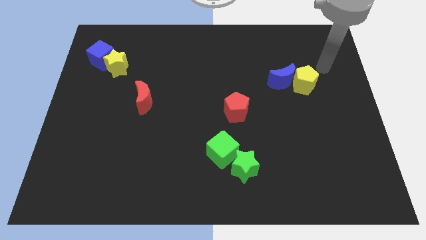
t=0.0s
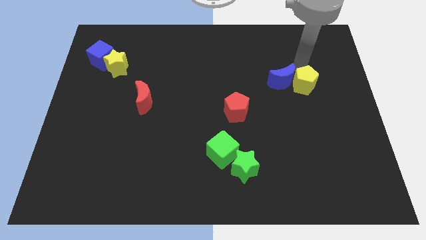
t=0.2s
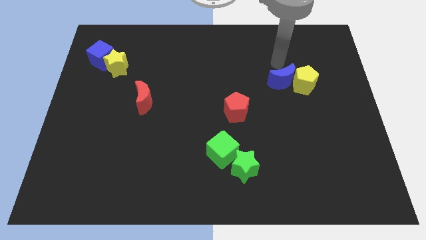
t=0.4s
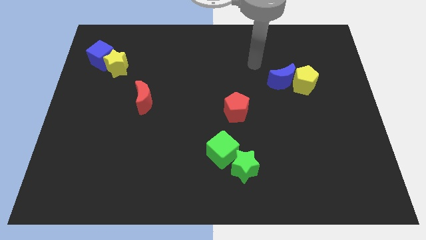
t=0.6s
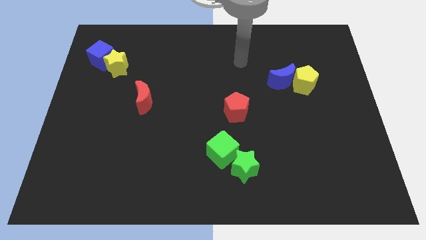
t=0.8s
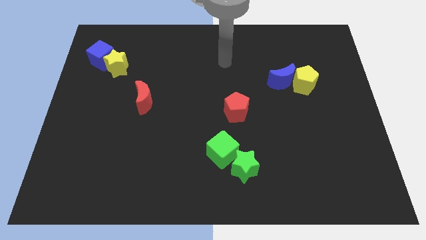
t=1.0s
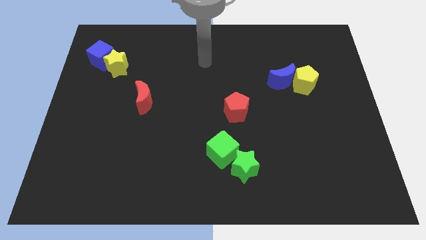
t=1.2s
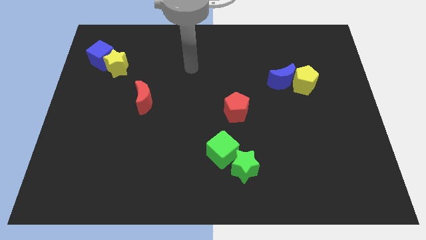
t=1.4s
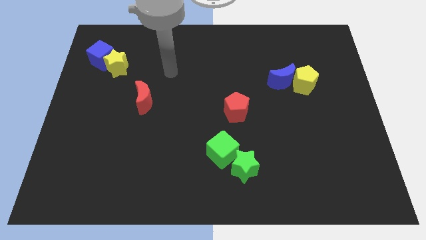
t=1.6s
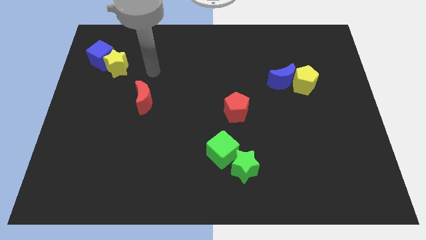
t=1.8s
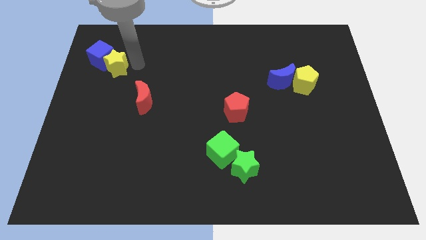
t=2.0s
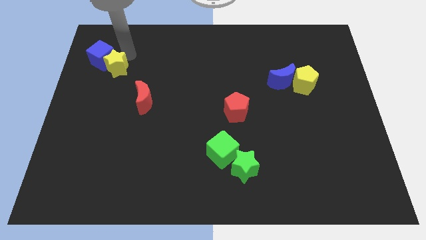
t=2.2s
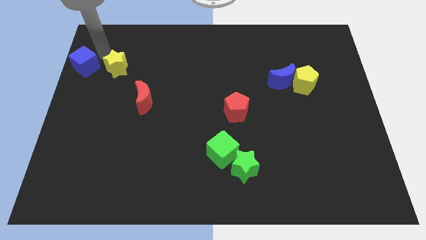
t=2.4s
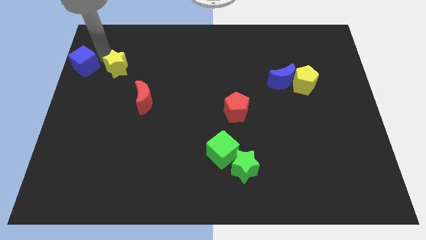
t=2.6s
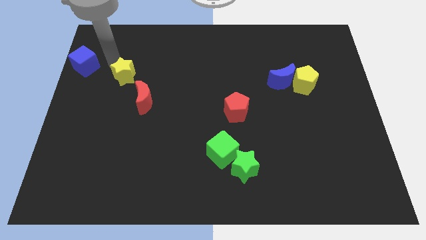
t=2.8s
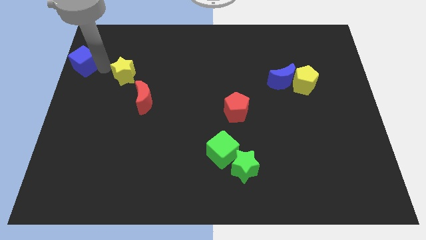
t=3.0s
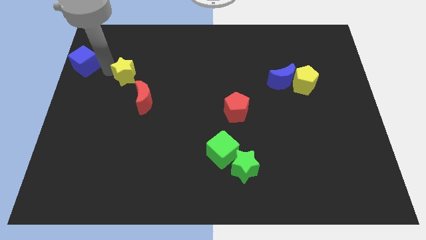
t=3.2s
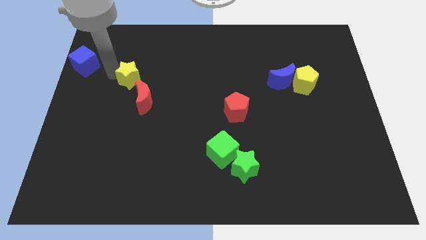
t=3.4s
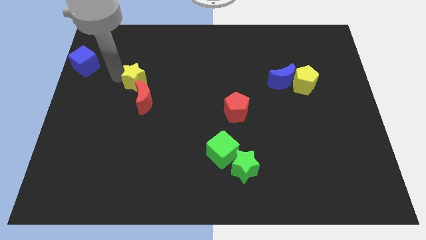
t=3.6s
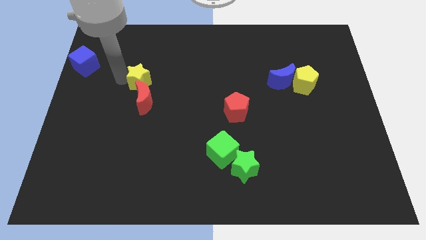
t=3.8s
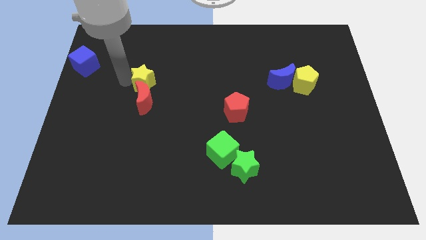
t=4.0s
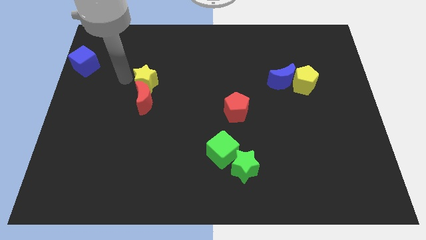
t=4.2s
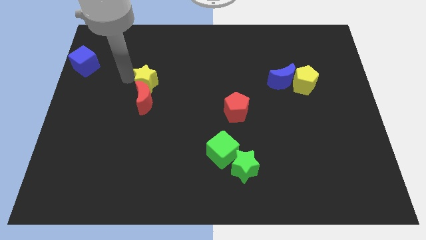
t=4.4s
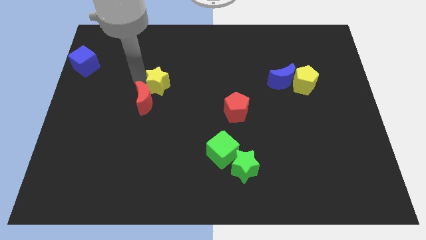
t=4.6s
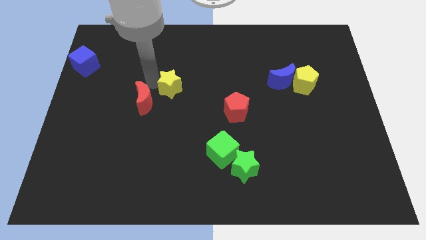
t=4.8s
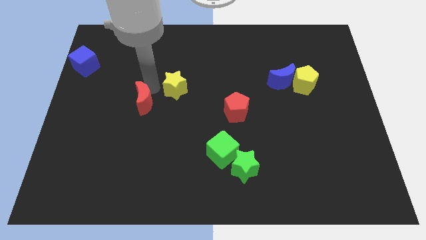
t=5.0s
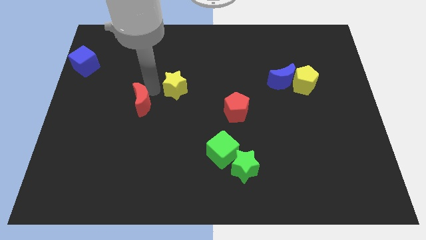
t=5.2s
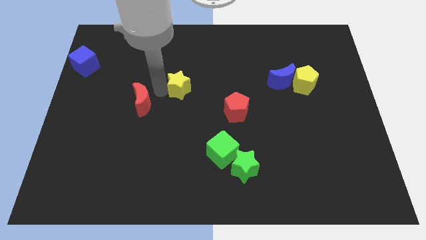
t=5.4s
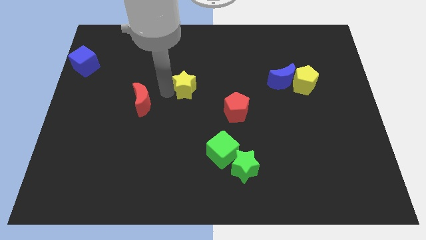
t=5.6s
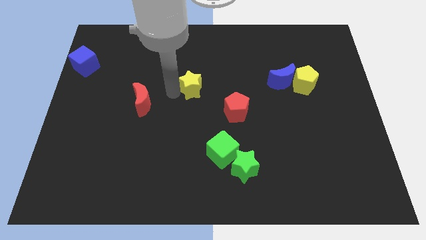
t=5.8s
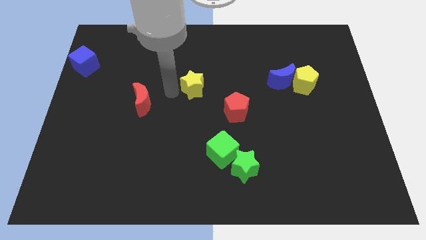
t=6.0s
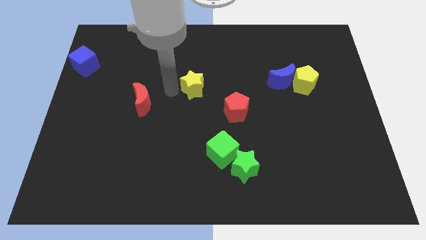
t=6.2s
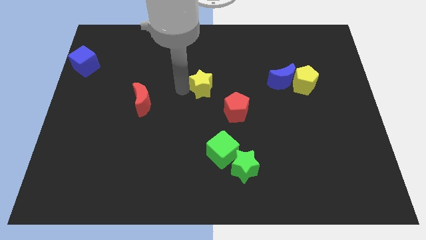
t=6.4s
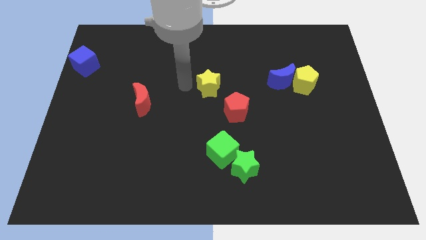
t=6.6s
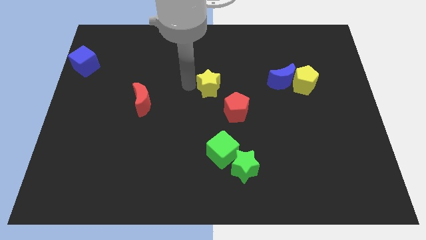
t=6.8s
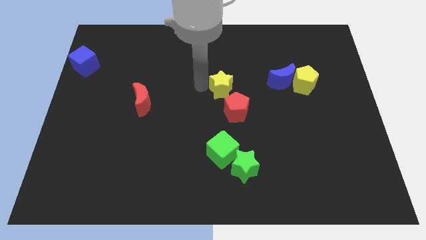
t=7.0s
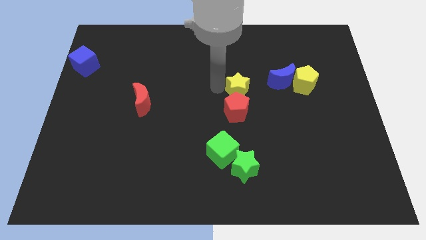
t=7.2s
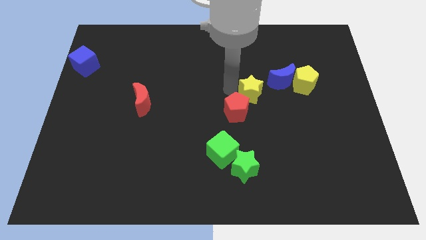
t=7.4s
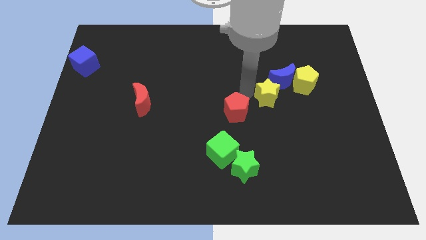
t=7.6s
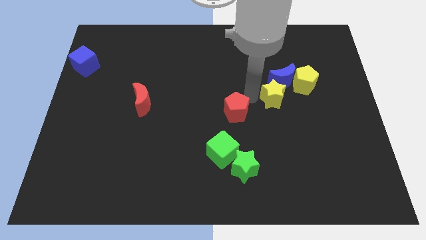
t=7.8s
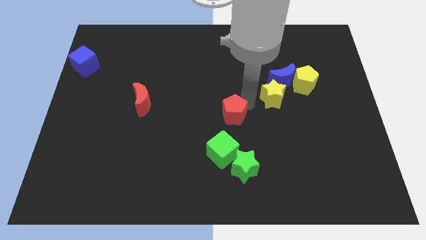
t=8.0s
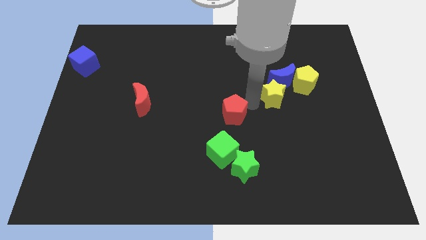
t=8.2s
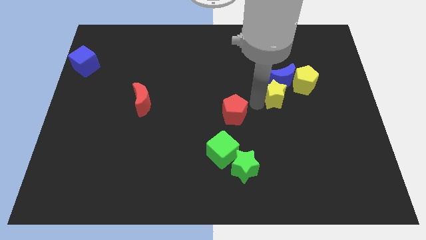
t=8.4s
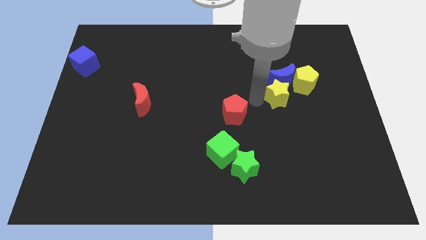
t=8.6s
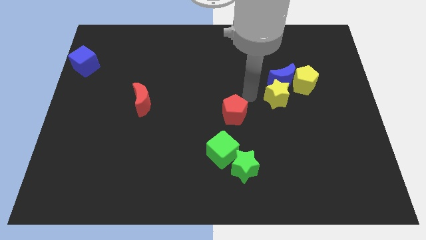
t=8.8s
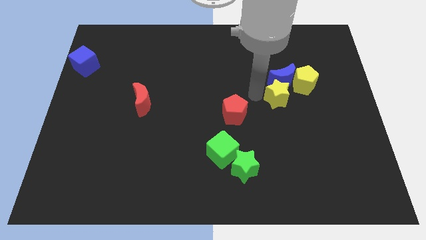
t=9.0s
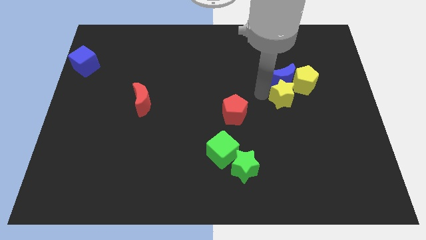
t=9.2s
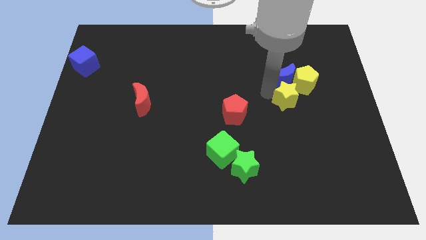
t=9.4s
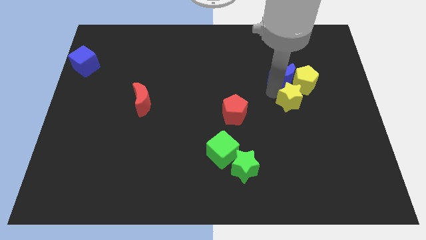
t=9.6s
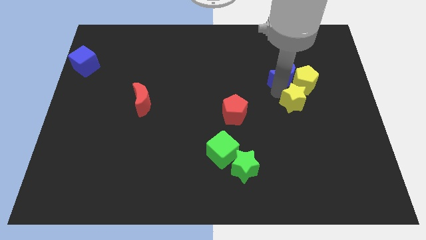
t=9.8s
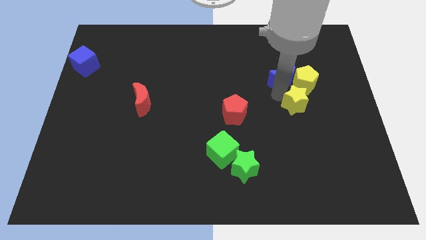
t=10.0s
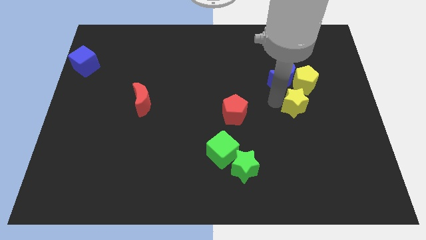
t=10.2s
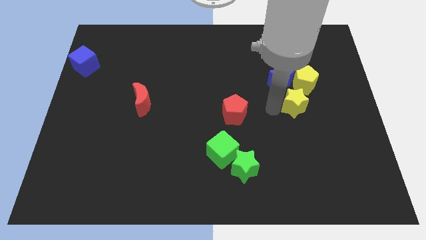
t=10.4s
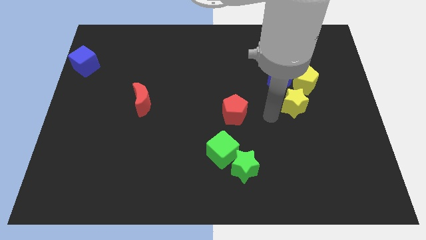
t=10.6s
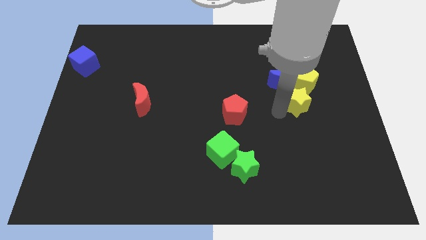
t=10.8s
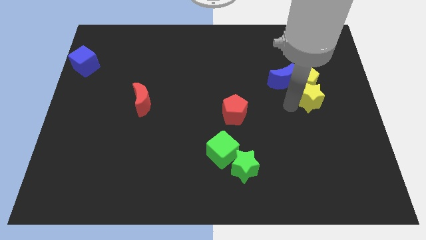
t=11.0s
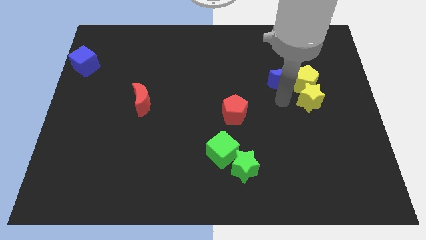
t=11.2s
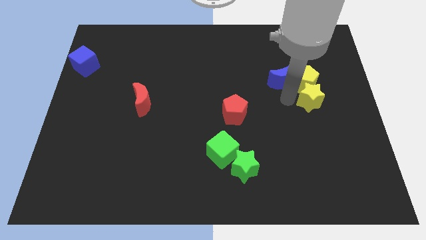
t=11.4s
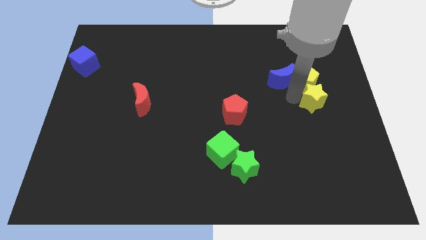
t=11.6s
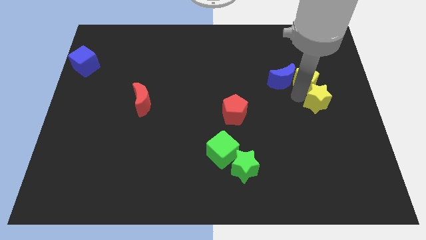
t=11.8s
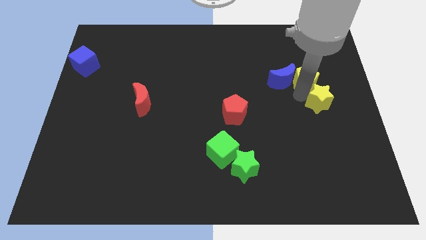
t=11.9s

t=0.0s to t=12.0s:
slide the yellow star to the right side

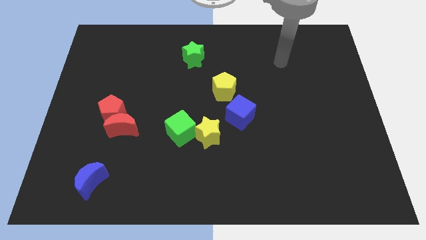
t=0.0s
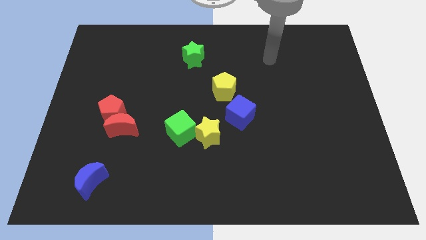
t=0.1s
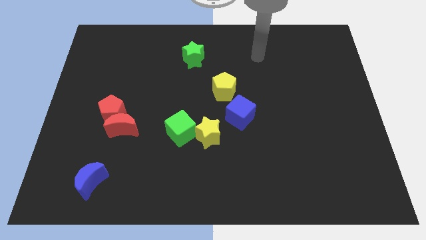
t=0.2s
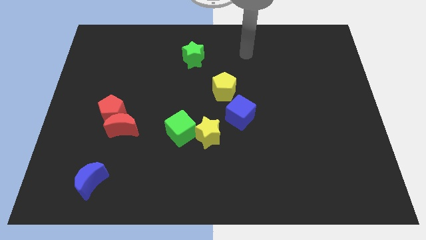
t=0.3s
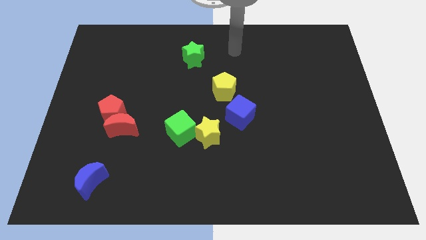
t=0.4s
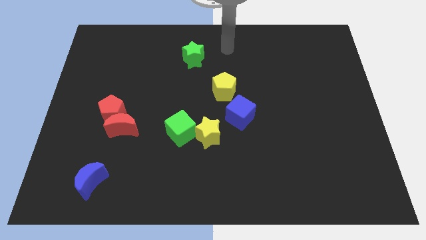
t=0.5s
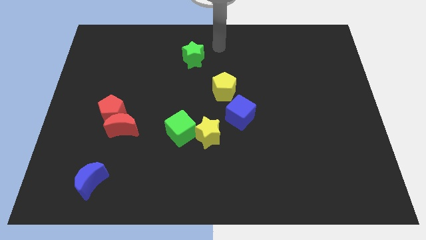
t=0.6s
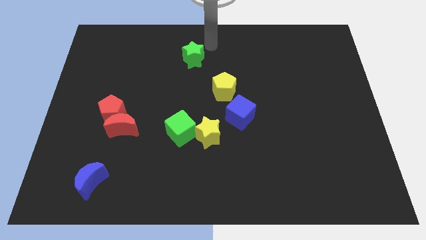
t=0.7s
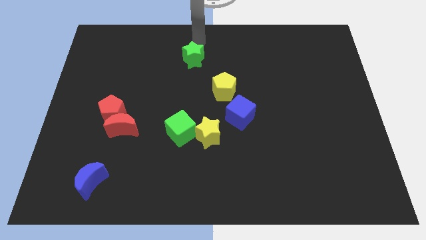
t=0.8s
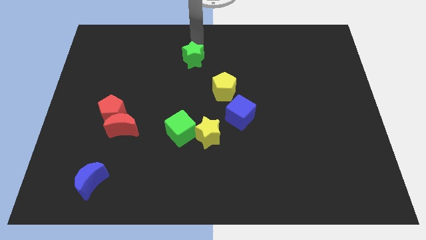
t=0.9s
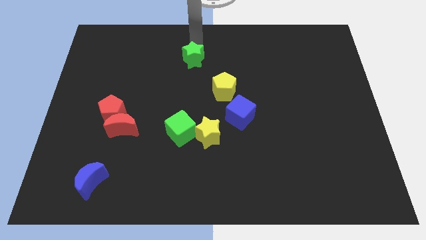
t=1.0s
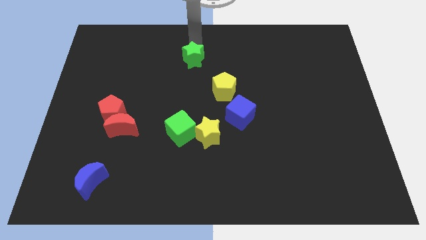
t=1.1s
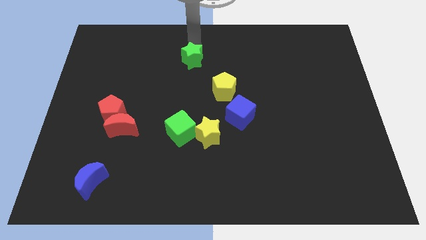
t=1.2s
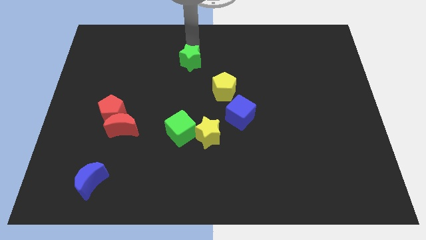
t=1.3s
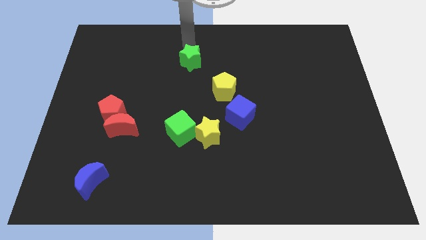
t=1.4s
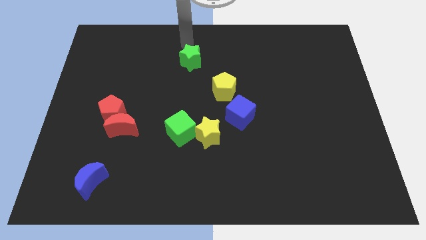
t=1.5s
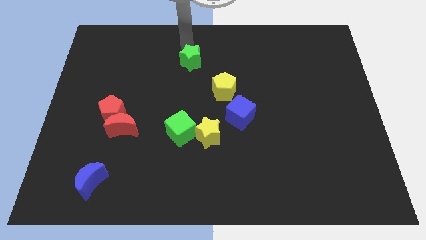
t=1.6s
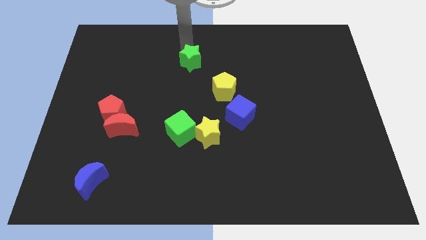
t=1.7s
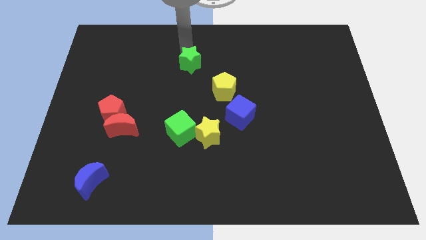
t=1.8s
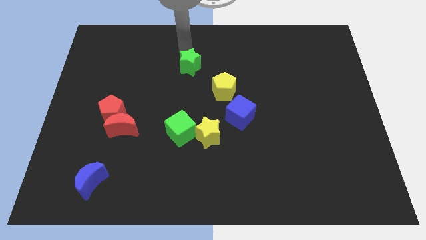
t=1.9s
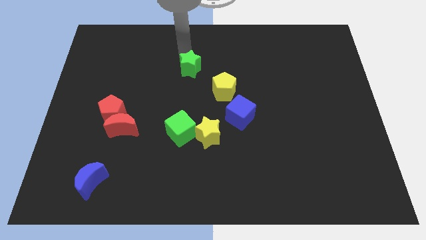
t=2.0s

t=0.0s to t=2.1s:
put the green star to the middle of the board
